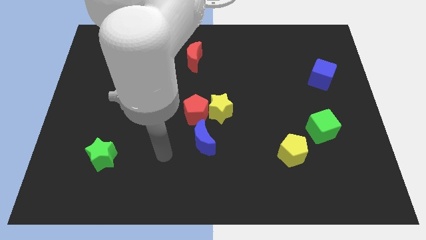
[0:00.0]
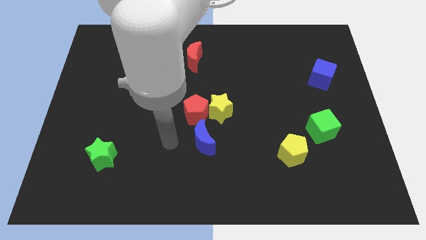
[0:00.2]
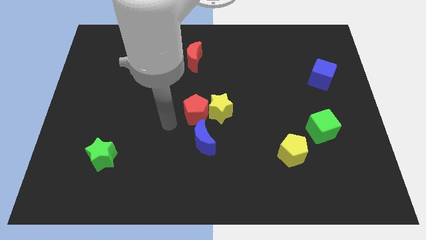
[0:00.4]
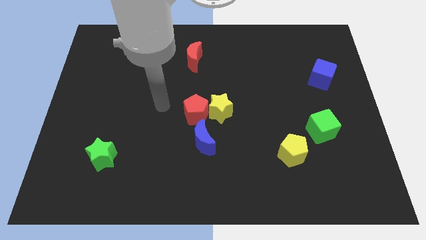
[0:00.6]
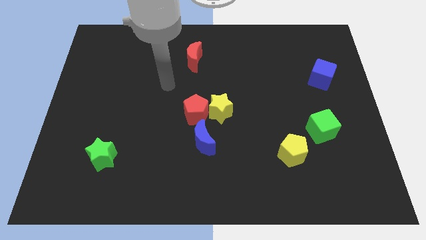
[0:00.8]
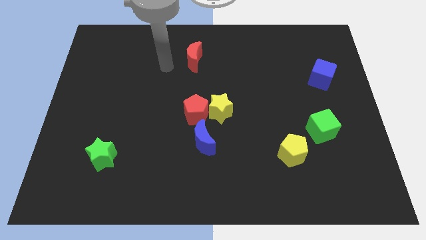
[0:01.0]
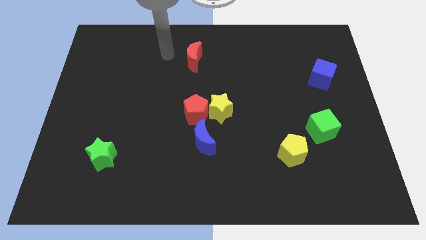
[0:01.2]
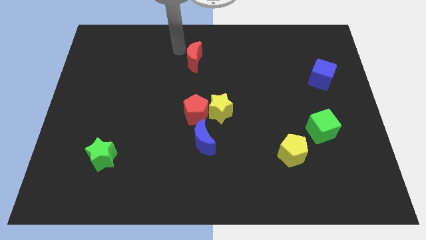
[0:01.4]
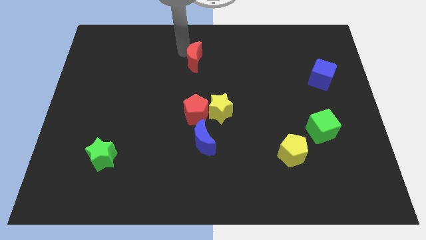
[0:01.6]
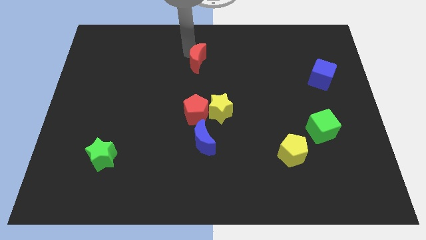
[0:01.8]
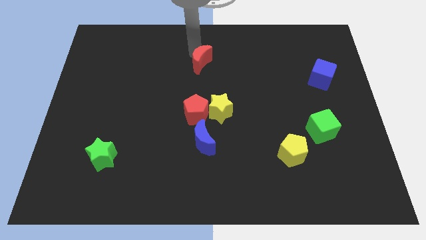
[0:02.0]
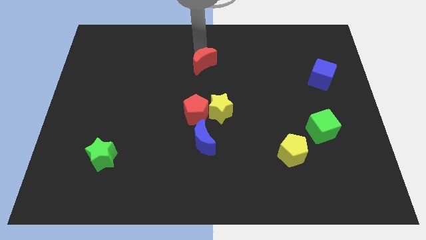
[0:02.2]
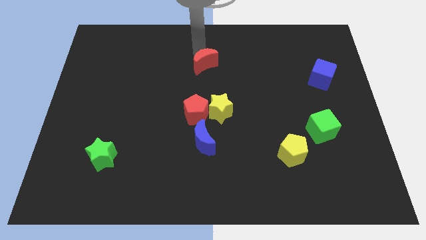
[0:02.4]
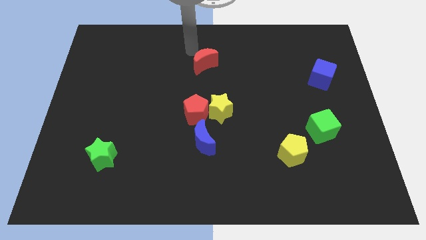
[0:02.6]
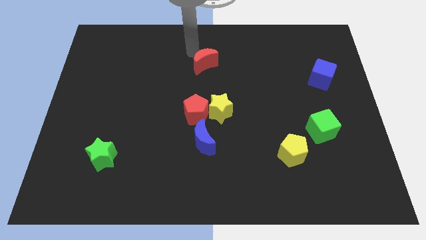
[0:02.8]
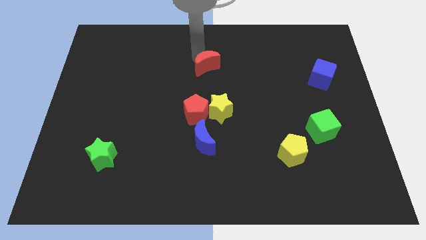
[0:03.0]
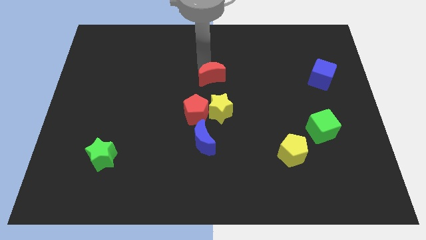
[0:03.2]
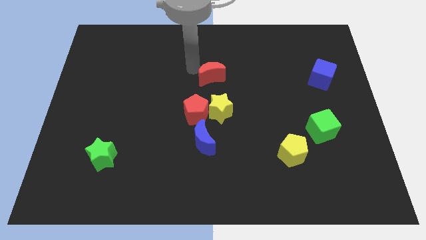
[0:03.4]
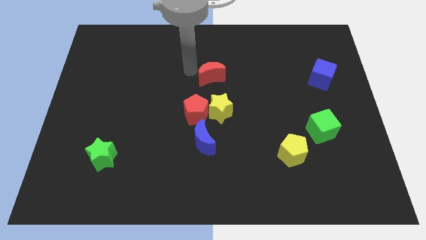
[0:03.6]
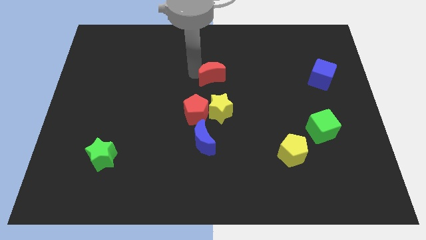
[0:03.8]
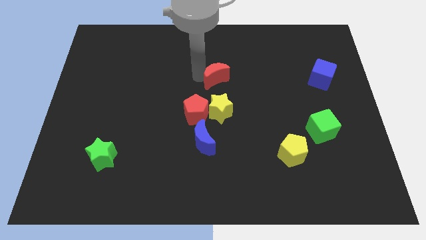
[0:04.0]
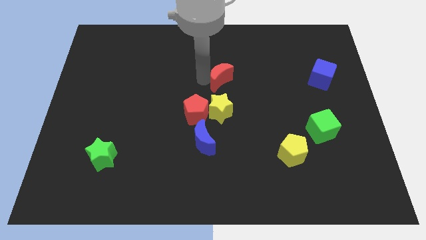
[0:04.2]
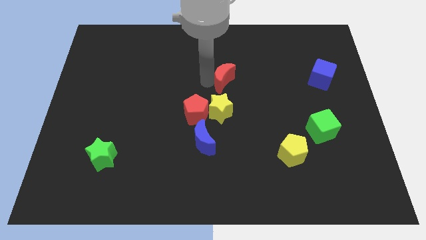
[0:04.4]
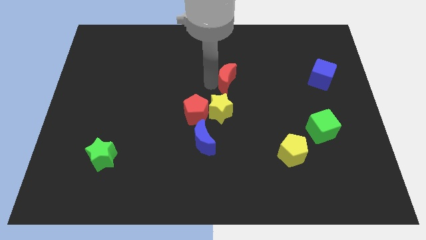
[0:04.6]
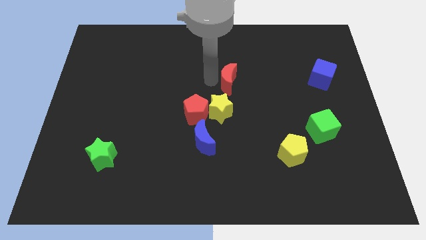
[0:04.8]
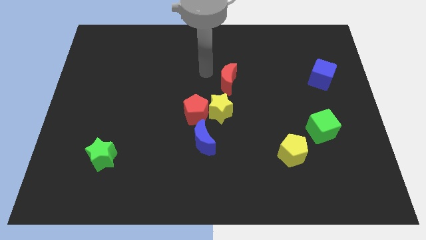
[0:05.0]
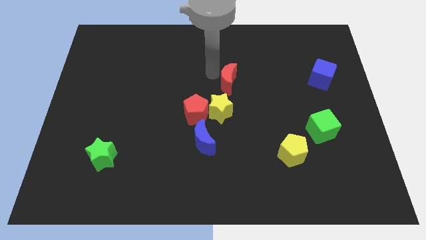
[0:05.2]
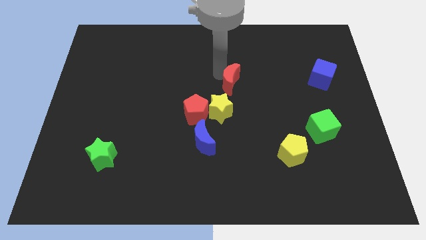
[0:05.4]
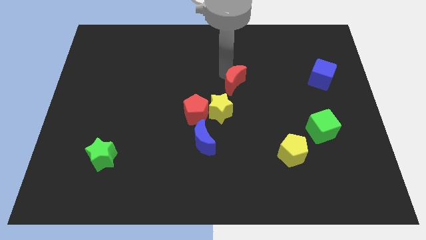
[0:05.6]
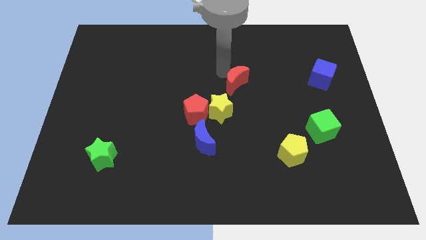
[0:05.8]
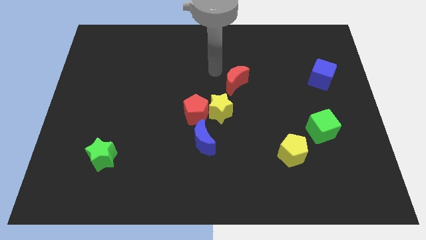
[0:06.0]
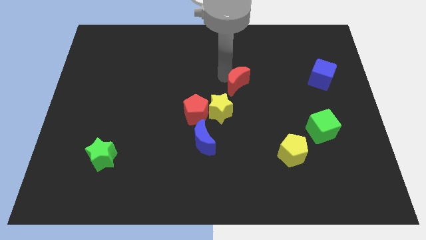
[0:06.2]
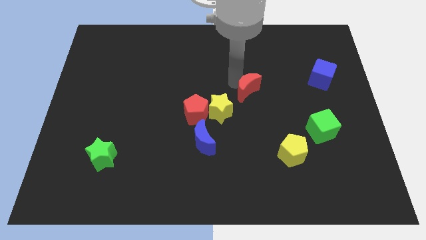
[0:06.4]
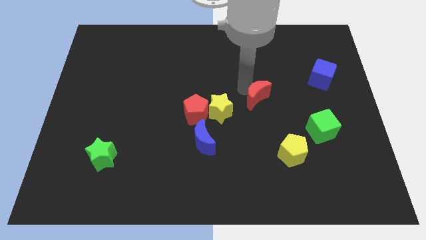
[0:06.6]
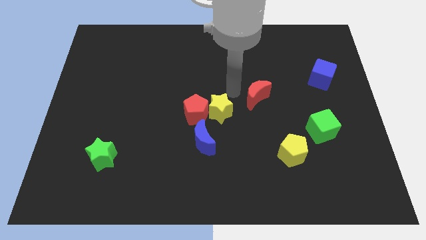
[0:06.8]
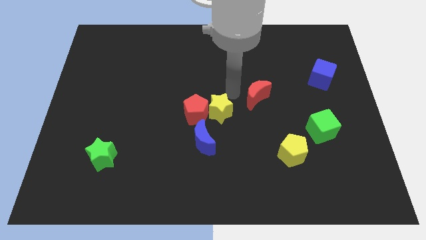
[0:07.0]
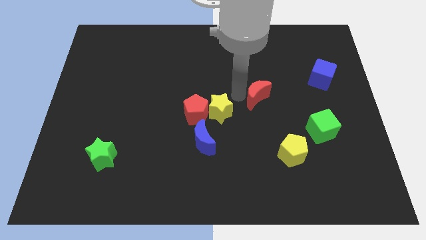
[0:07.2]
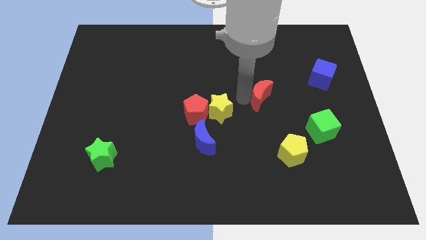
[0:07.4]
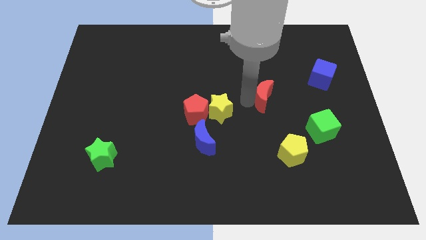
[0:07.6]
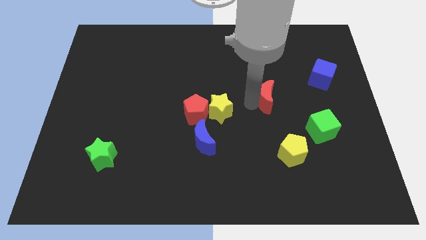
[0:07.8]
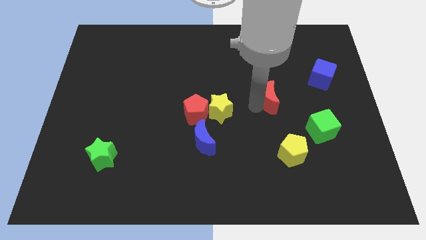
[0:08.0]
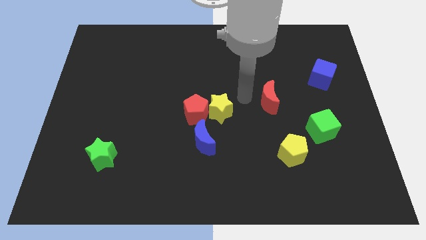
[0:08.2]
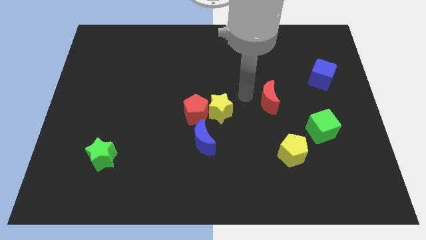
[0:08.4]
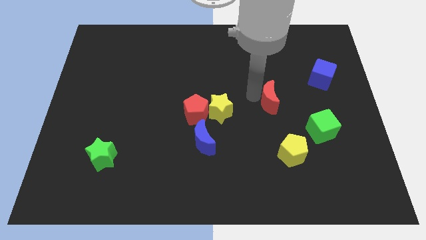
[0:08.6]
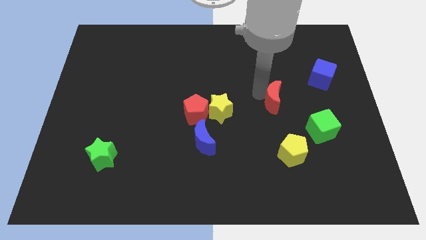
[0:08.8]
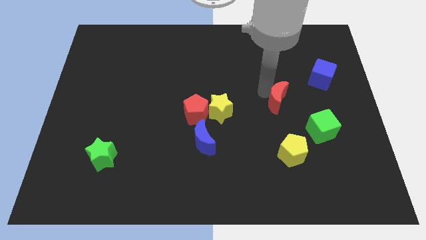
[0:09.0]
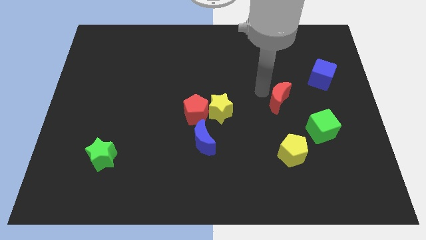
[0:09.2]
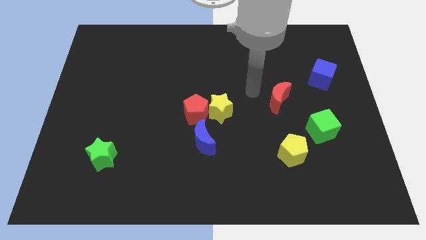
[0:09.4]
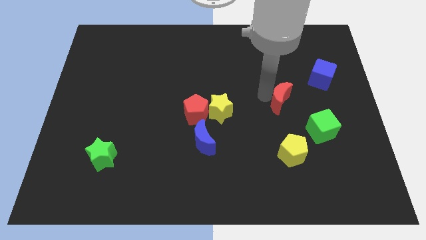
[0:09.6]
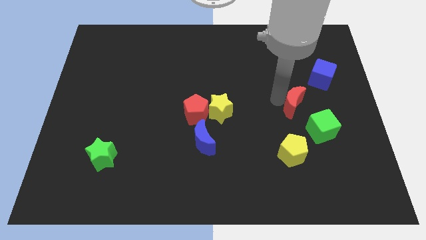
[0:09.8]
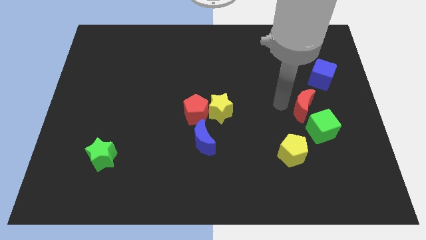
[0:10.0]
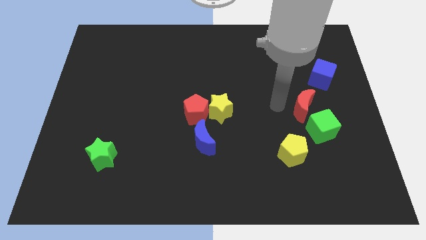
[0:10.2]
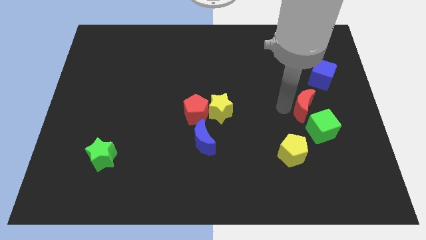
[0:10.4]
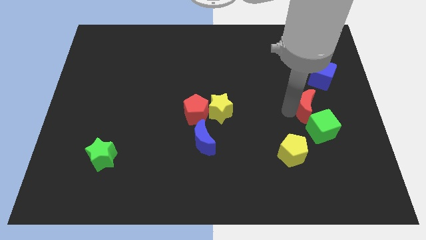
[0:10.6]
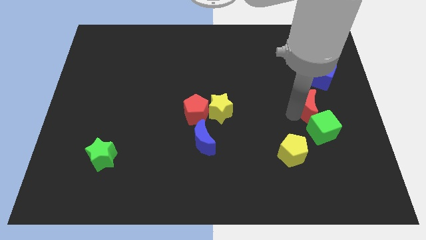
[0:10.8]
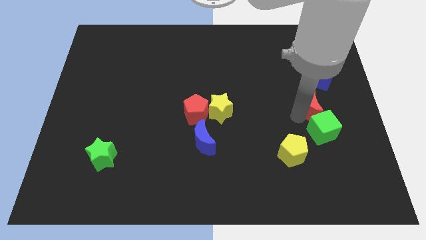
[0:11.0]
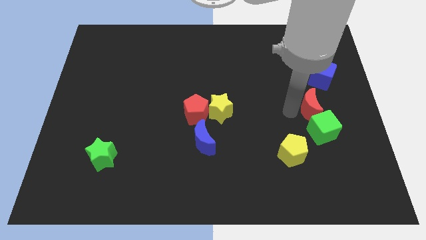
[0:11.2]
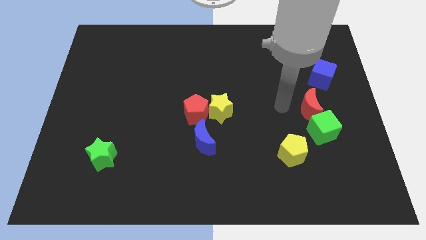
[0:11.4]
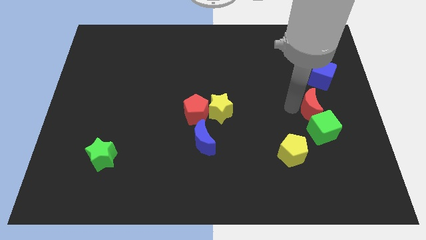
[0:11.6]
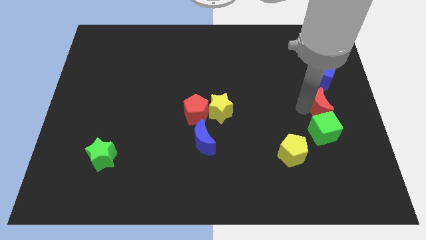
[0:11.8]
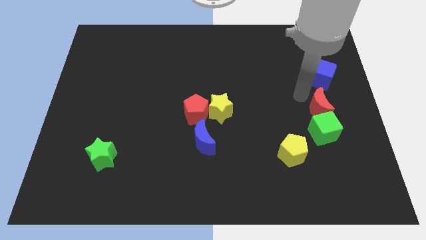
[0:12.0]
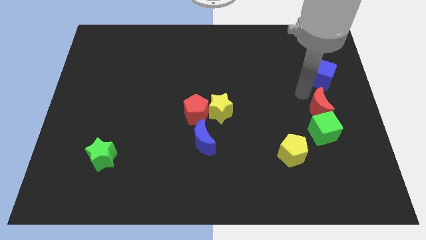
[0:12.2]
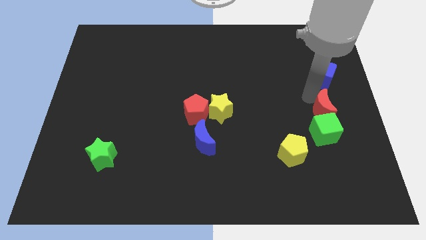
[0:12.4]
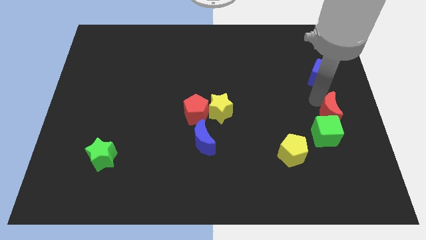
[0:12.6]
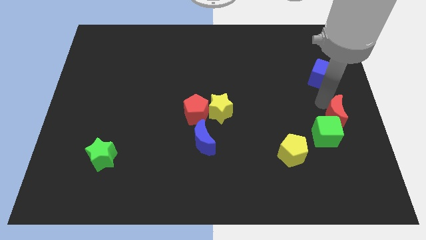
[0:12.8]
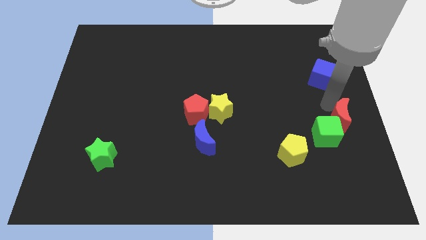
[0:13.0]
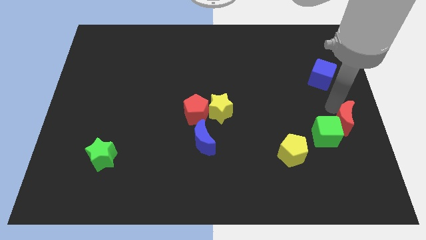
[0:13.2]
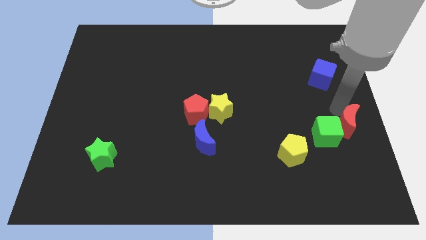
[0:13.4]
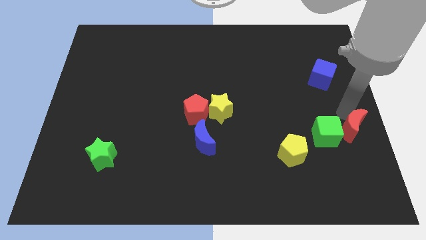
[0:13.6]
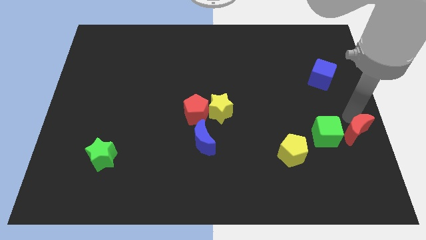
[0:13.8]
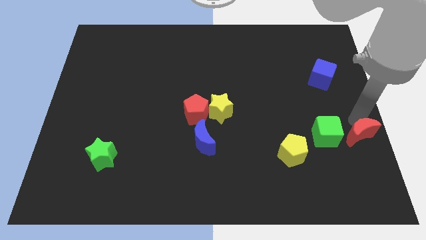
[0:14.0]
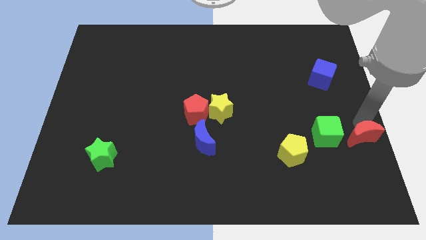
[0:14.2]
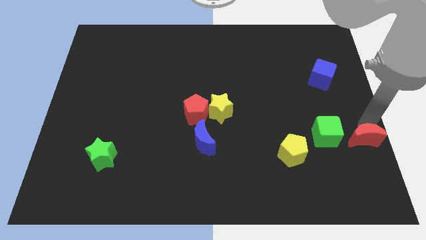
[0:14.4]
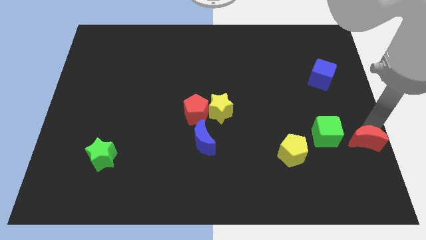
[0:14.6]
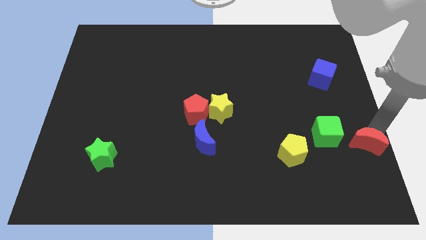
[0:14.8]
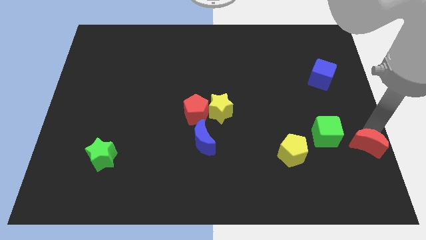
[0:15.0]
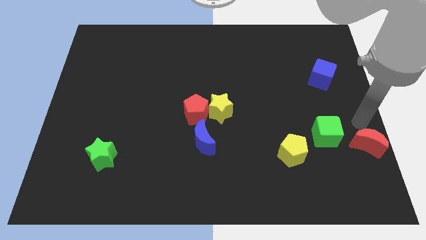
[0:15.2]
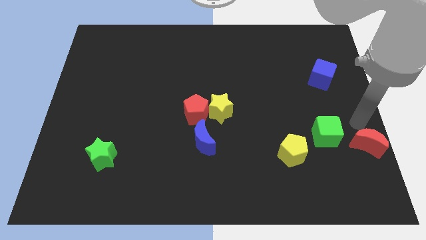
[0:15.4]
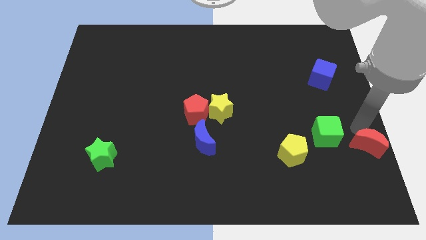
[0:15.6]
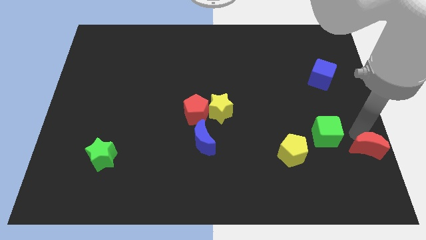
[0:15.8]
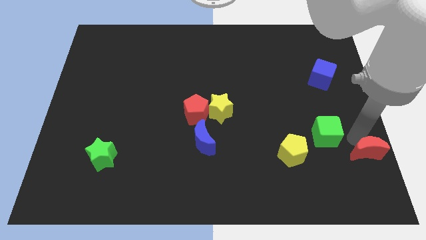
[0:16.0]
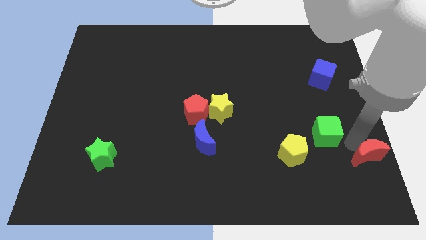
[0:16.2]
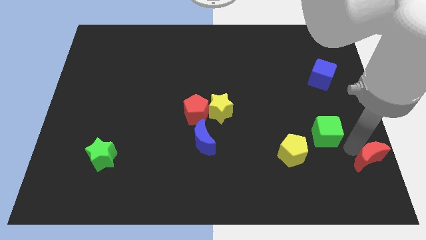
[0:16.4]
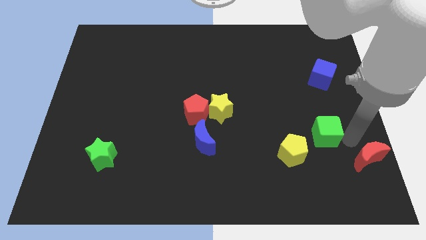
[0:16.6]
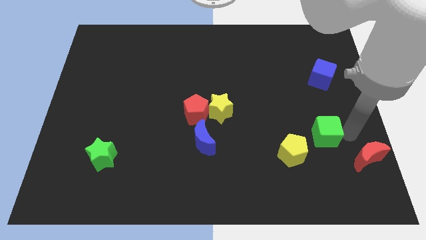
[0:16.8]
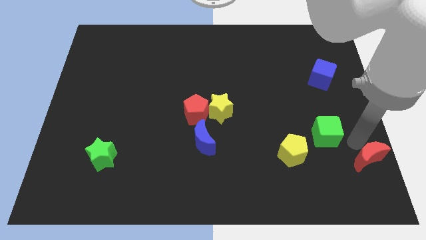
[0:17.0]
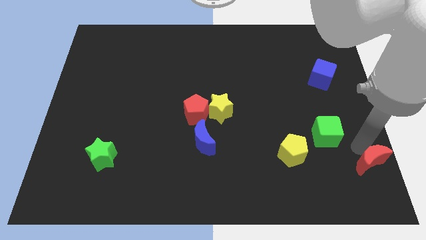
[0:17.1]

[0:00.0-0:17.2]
move the red moon to the bottom right
